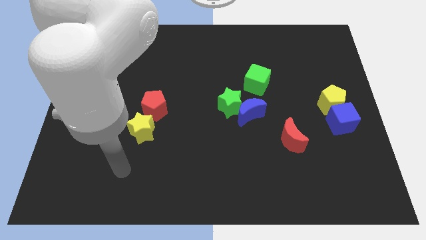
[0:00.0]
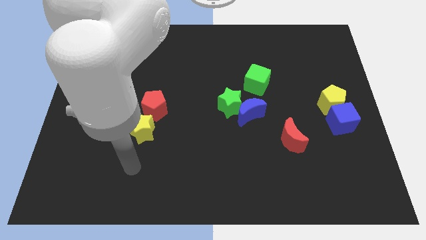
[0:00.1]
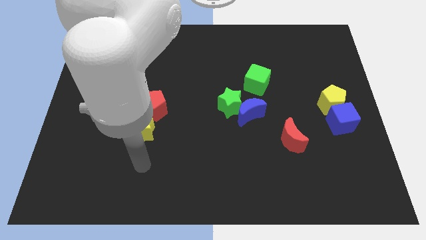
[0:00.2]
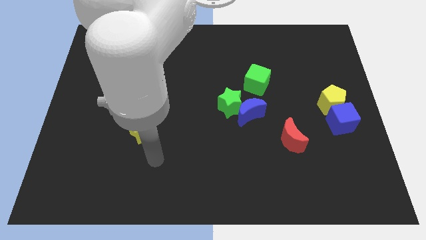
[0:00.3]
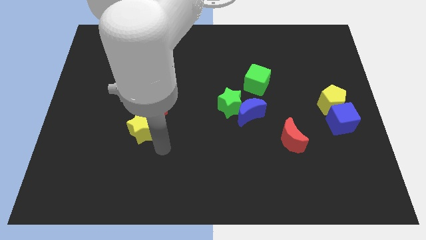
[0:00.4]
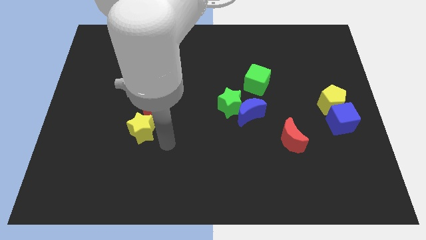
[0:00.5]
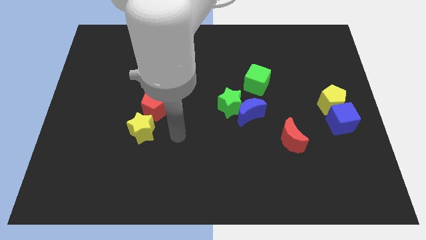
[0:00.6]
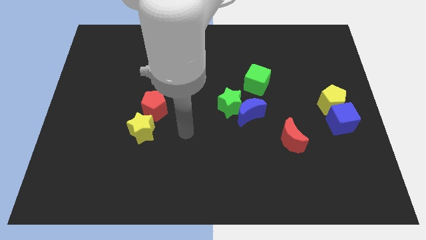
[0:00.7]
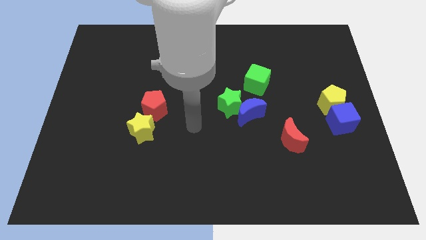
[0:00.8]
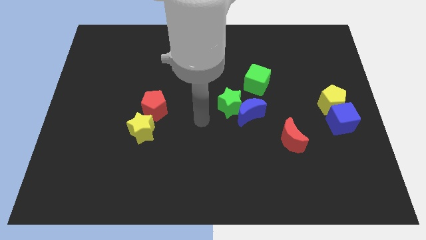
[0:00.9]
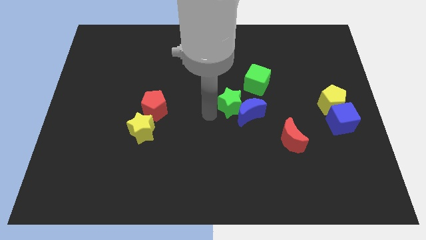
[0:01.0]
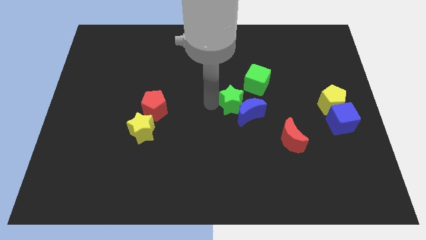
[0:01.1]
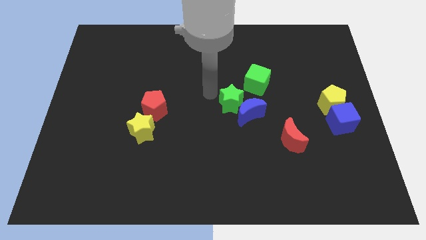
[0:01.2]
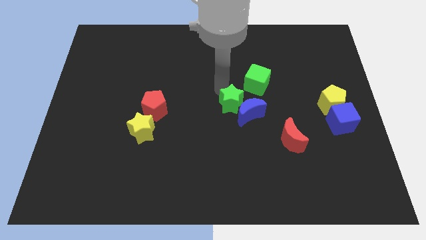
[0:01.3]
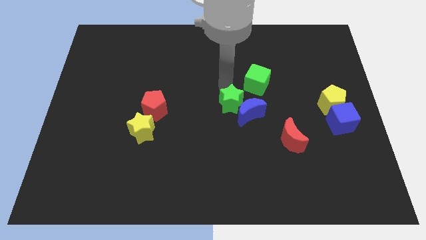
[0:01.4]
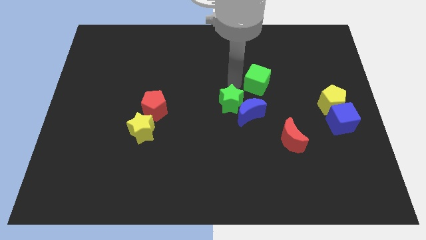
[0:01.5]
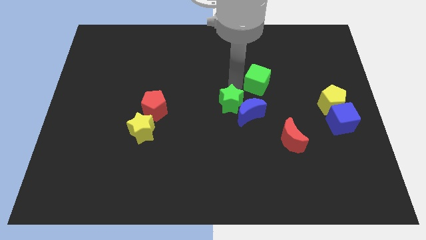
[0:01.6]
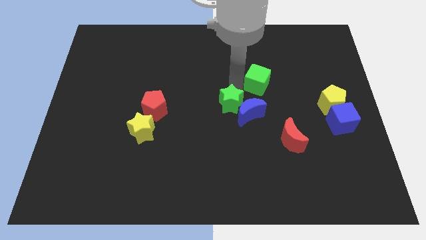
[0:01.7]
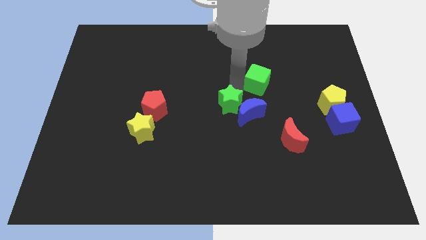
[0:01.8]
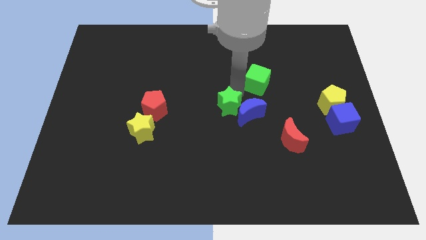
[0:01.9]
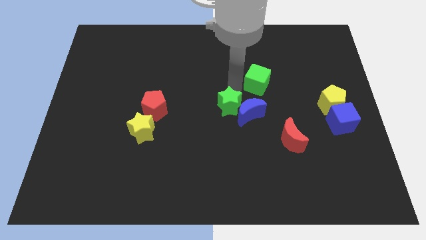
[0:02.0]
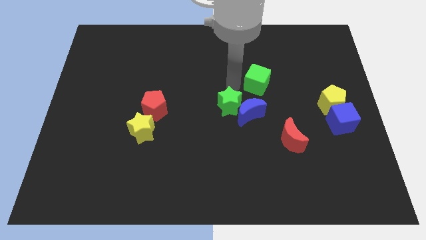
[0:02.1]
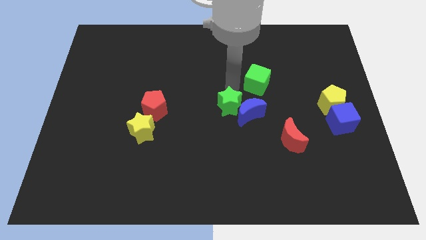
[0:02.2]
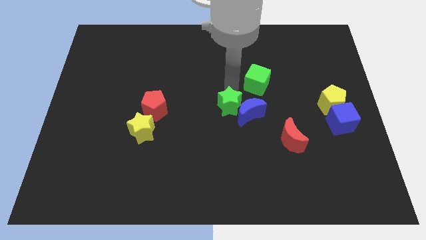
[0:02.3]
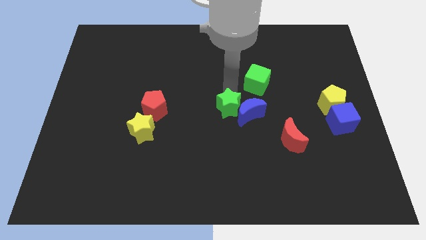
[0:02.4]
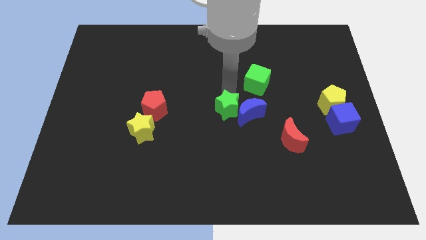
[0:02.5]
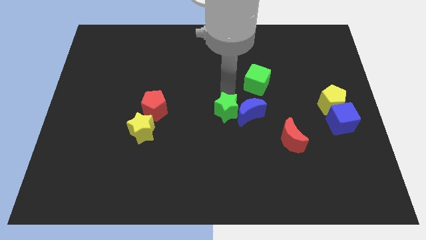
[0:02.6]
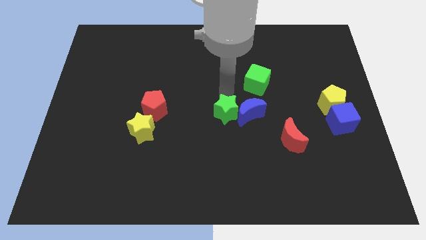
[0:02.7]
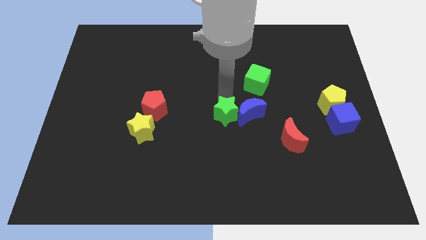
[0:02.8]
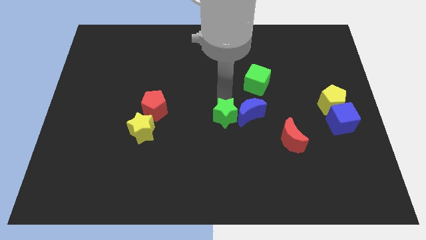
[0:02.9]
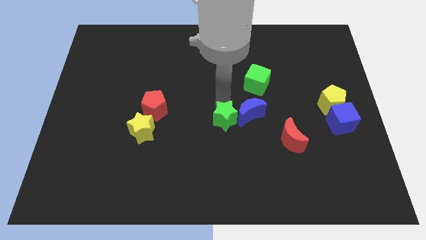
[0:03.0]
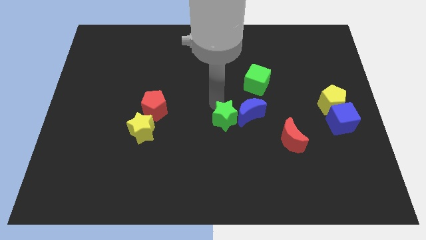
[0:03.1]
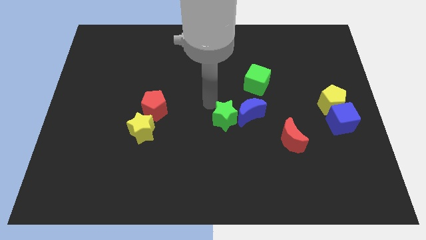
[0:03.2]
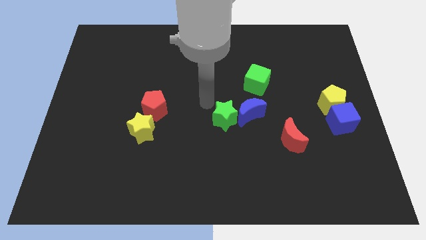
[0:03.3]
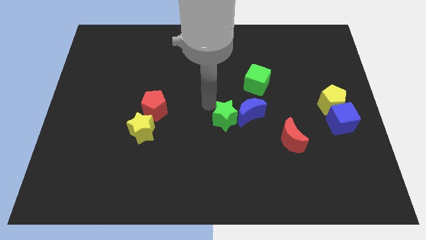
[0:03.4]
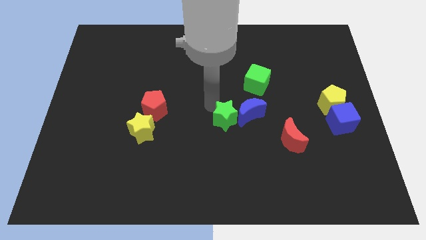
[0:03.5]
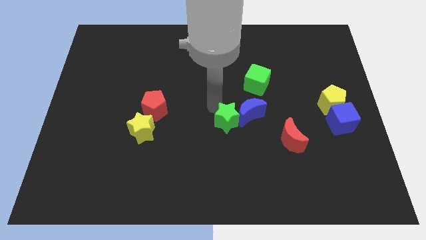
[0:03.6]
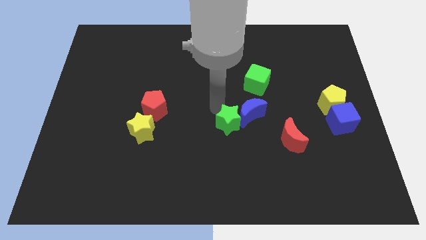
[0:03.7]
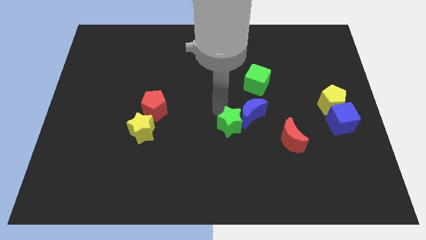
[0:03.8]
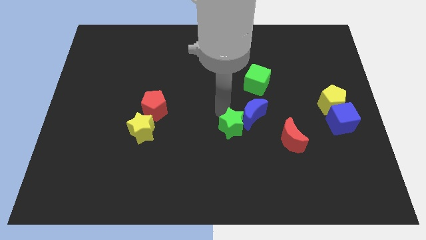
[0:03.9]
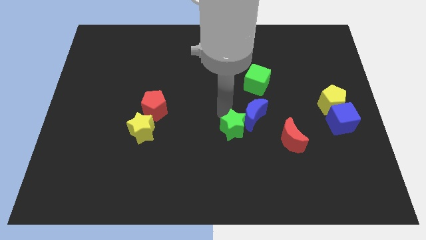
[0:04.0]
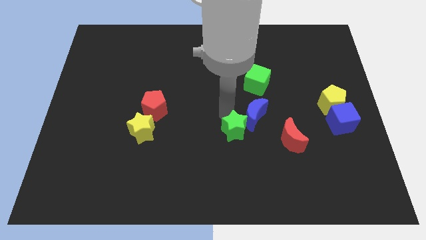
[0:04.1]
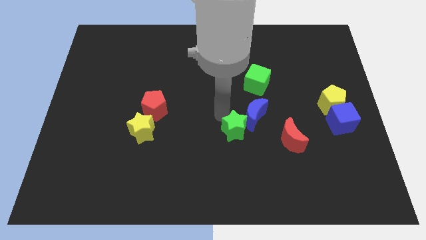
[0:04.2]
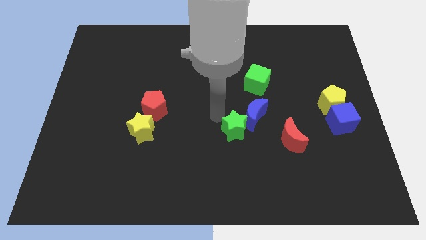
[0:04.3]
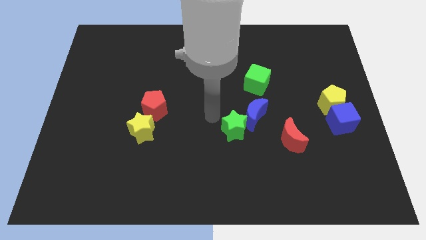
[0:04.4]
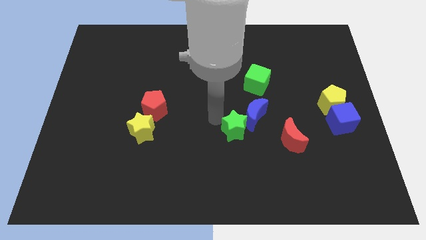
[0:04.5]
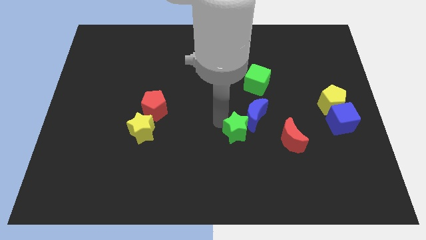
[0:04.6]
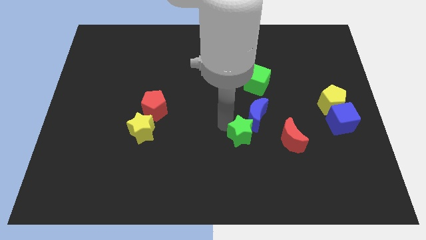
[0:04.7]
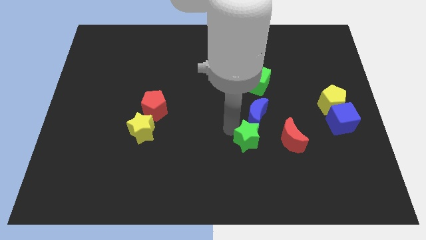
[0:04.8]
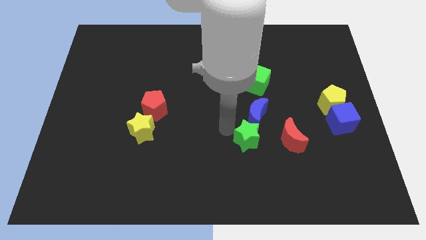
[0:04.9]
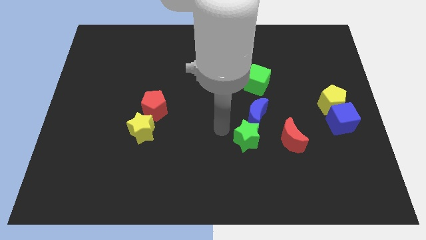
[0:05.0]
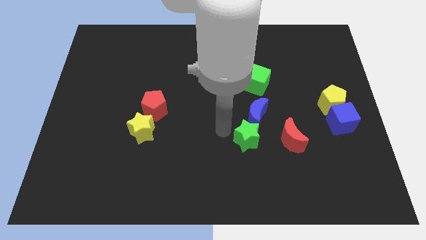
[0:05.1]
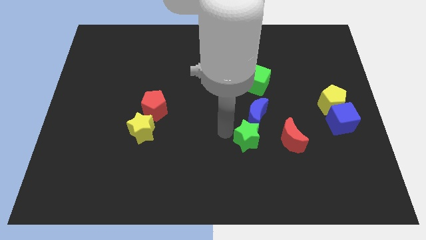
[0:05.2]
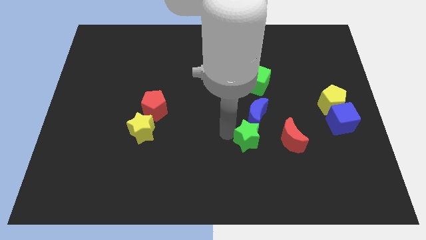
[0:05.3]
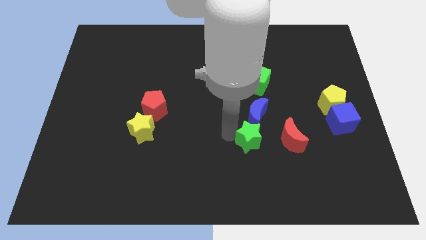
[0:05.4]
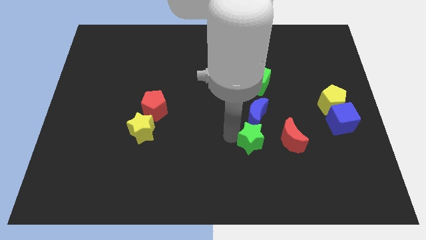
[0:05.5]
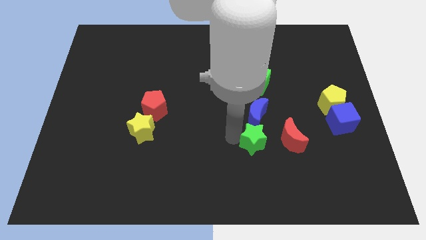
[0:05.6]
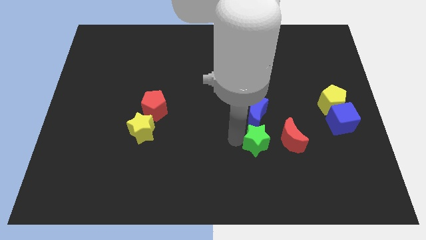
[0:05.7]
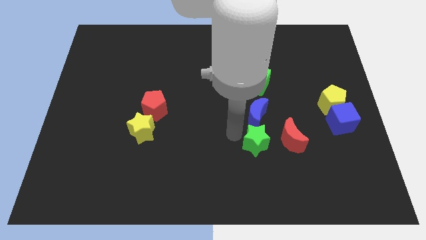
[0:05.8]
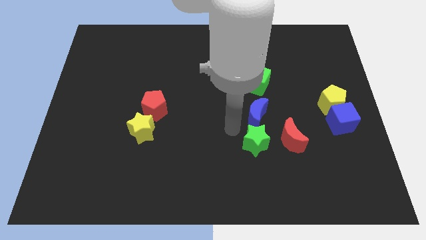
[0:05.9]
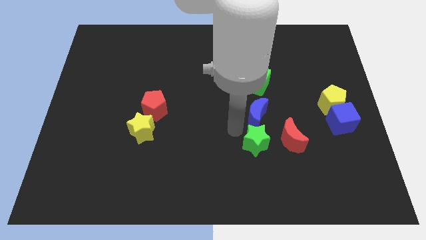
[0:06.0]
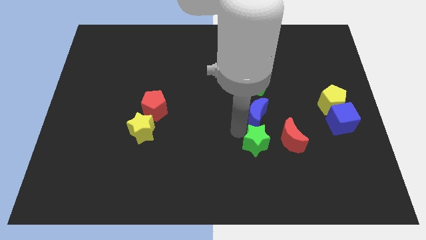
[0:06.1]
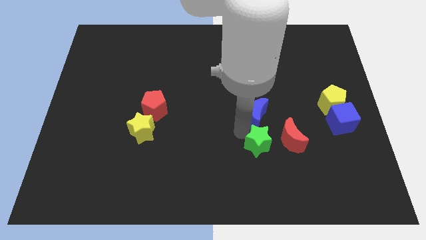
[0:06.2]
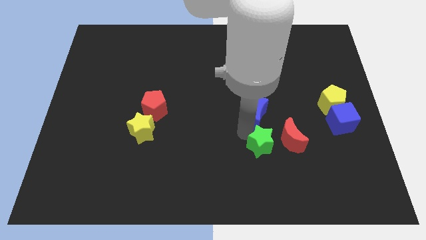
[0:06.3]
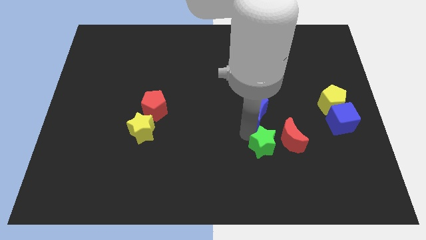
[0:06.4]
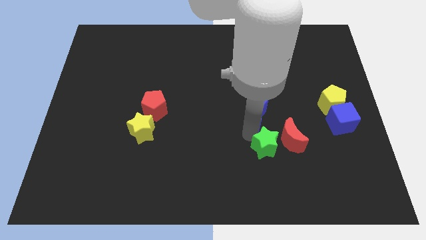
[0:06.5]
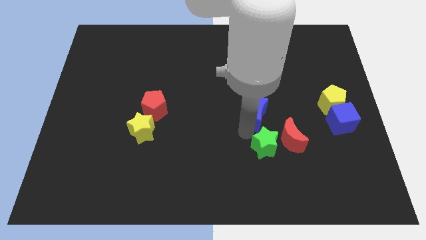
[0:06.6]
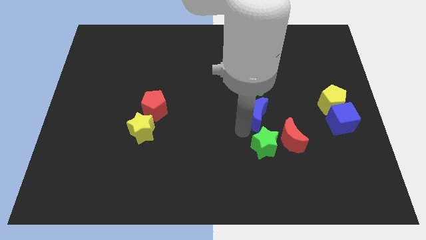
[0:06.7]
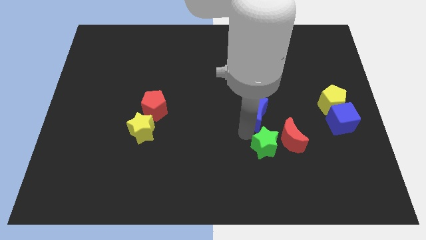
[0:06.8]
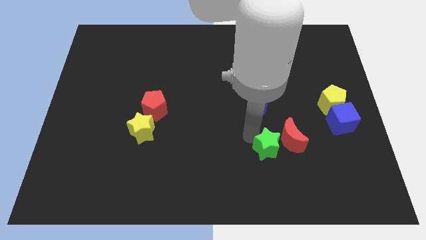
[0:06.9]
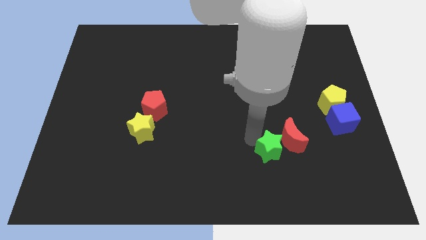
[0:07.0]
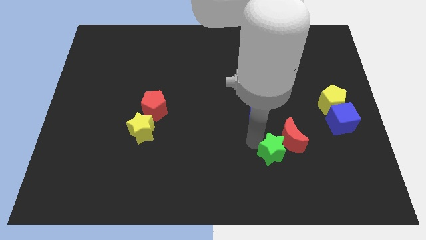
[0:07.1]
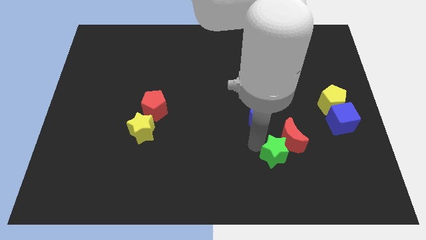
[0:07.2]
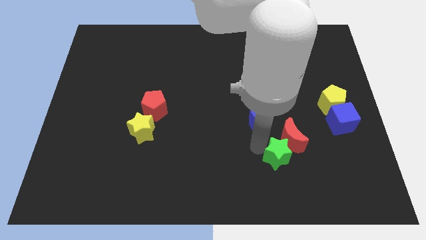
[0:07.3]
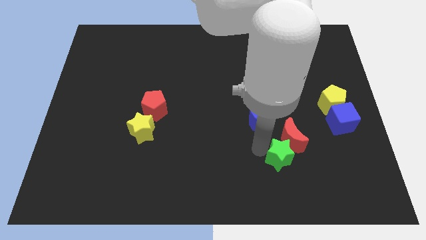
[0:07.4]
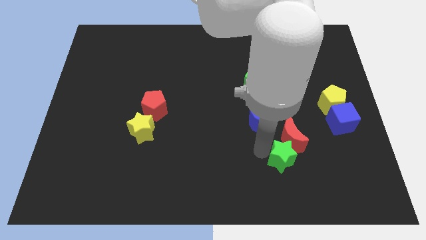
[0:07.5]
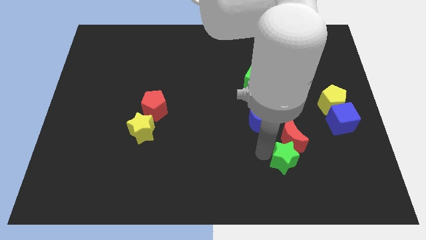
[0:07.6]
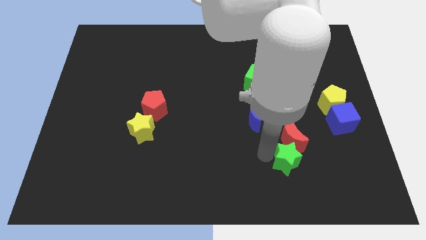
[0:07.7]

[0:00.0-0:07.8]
move the green star diagonally down and to the right of the red moon
